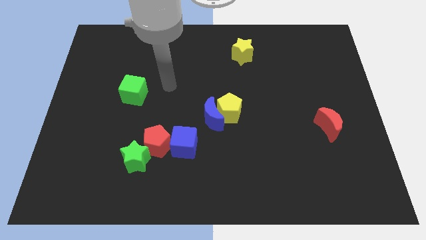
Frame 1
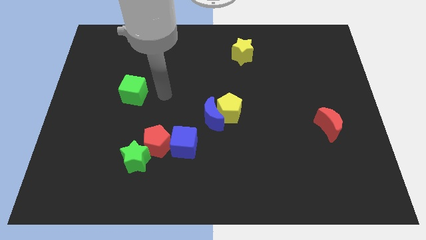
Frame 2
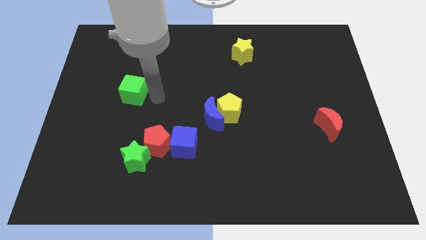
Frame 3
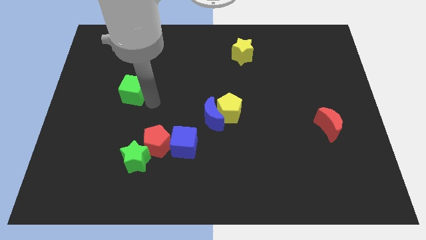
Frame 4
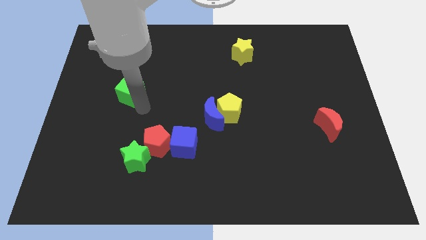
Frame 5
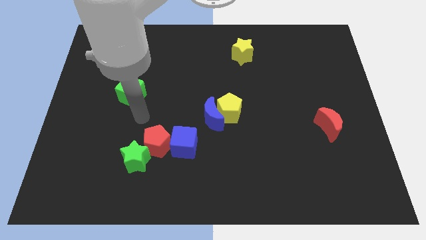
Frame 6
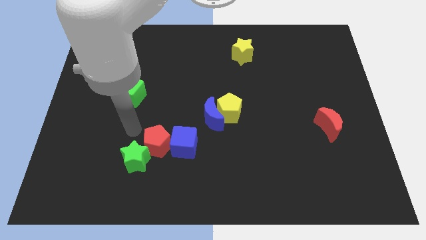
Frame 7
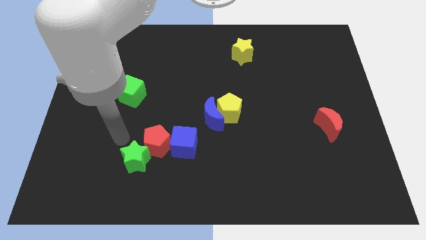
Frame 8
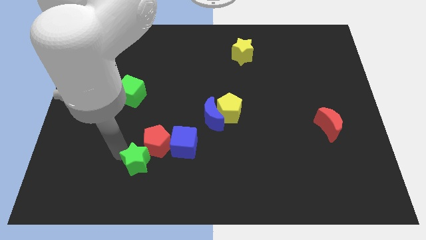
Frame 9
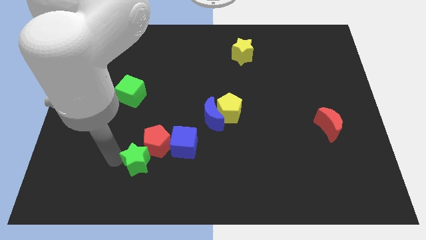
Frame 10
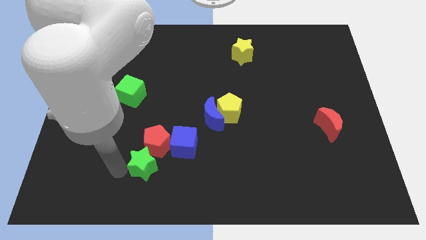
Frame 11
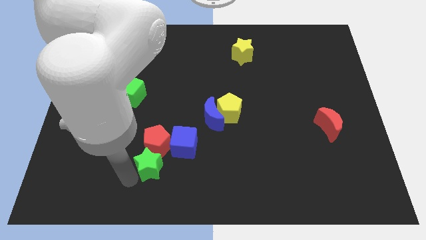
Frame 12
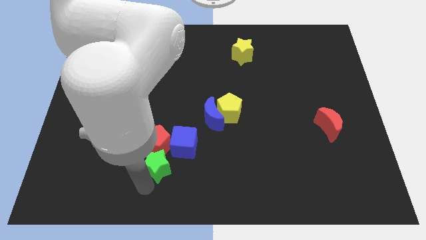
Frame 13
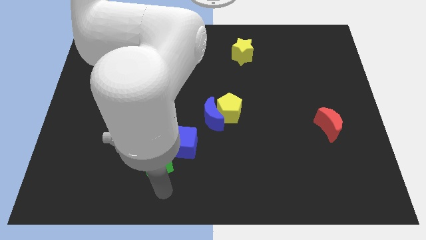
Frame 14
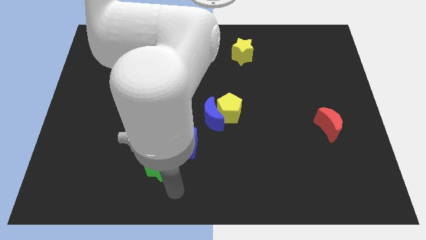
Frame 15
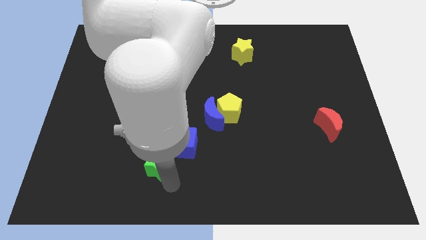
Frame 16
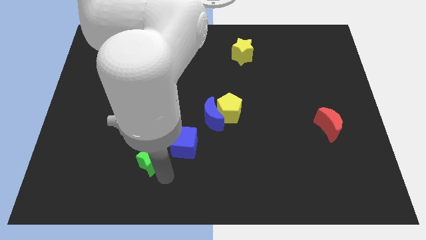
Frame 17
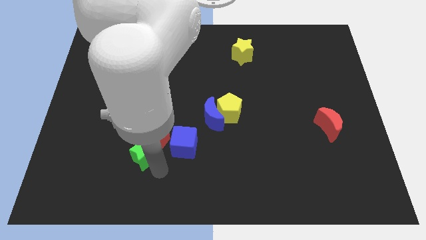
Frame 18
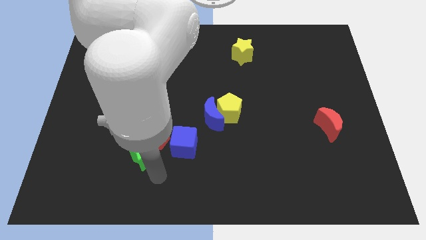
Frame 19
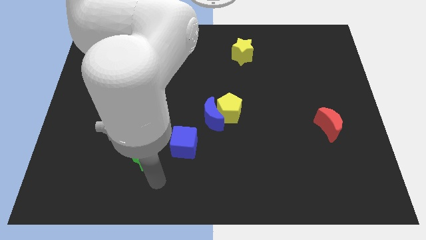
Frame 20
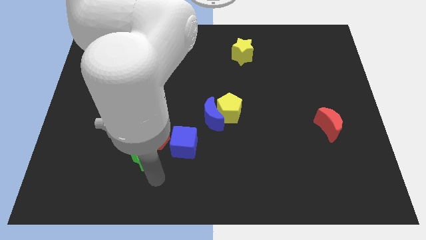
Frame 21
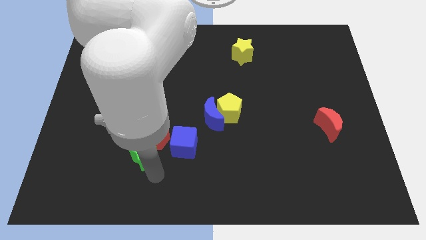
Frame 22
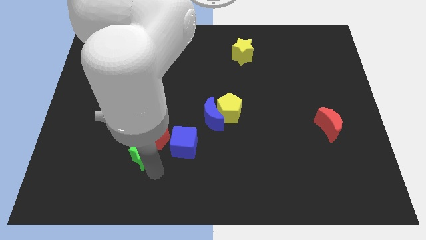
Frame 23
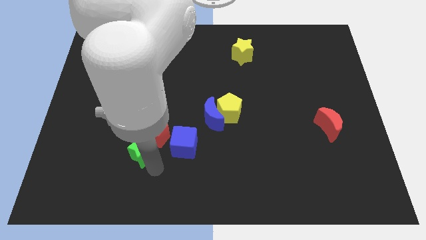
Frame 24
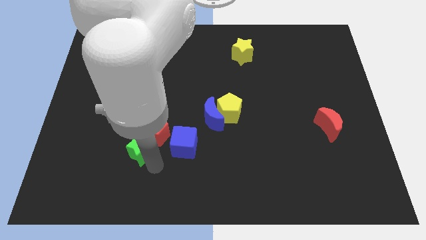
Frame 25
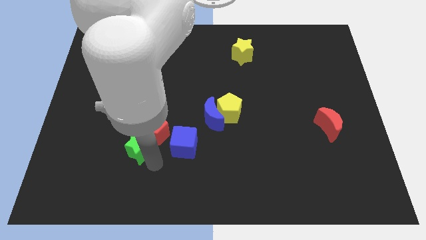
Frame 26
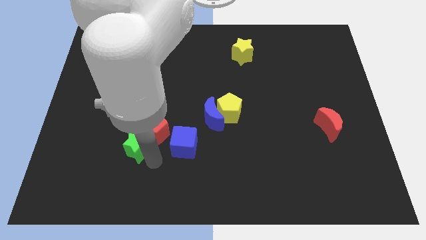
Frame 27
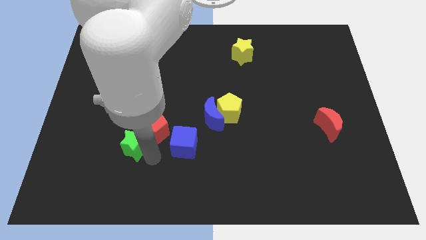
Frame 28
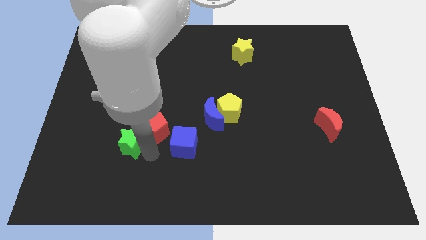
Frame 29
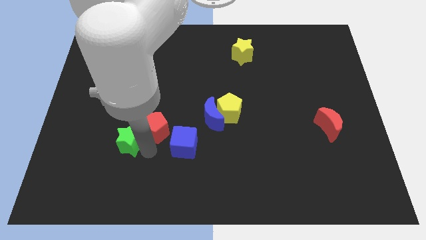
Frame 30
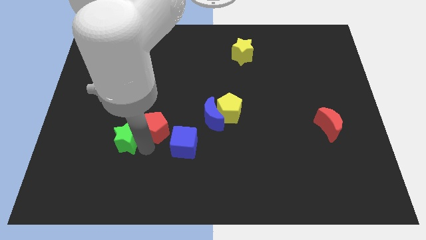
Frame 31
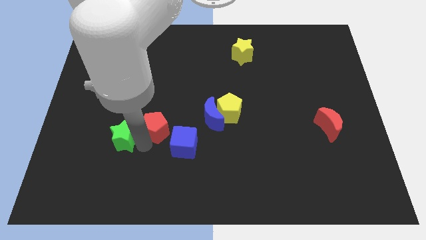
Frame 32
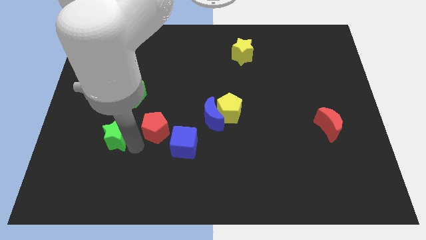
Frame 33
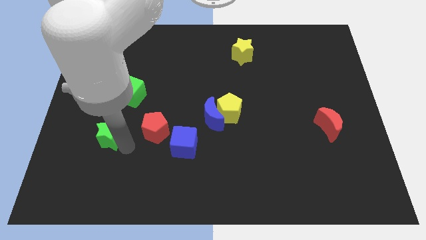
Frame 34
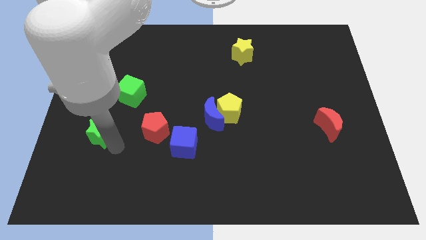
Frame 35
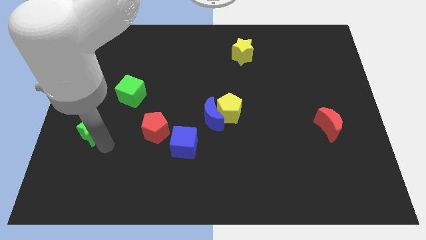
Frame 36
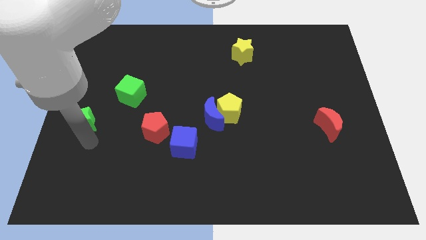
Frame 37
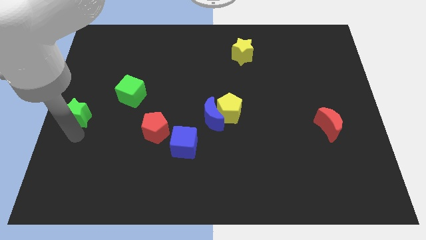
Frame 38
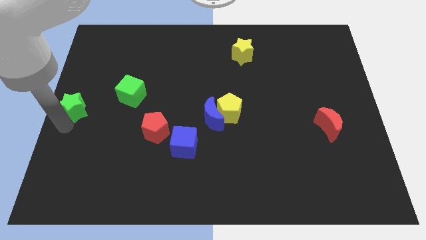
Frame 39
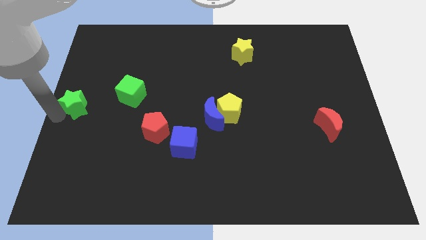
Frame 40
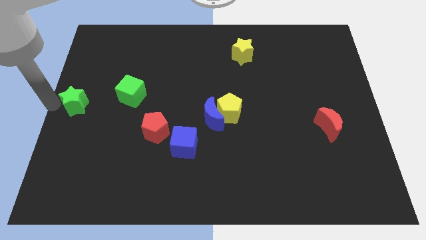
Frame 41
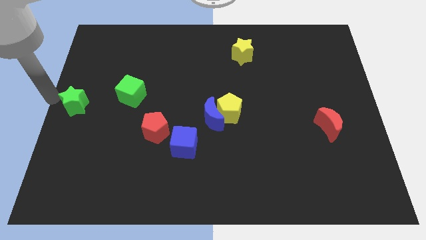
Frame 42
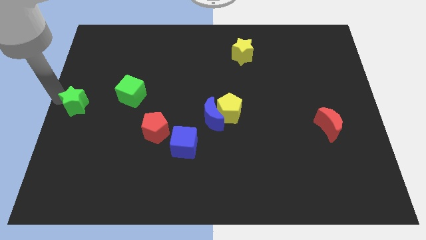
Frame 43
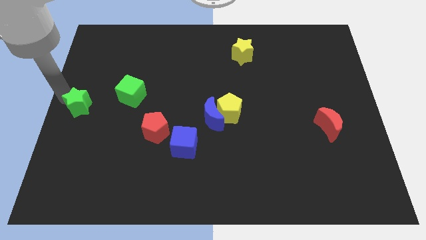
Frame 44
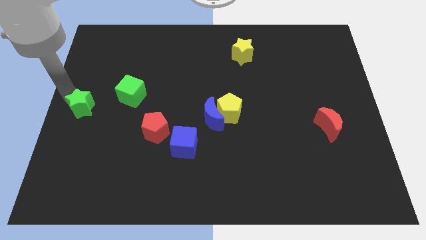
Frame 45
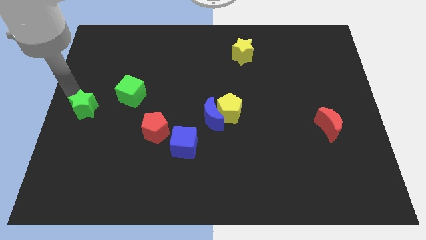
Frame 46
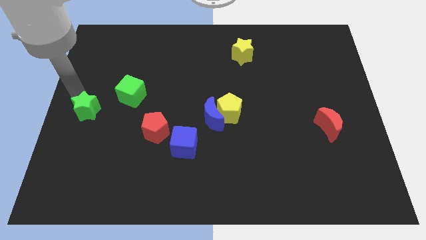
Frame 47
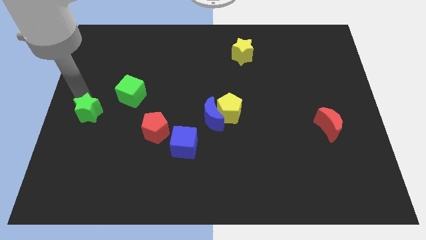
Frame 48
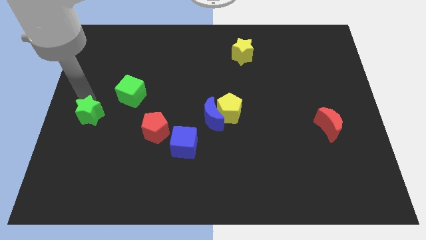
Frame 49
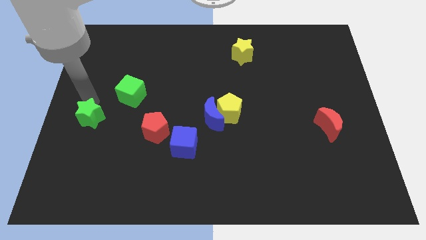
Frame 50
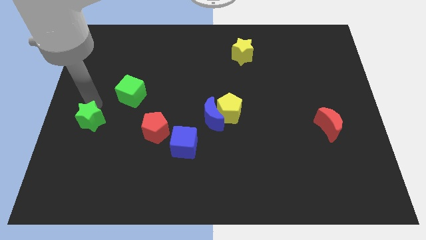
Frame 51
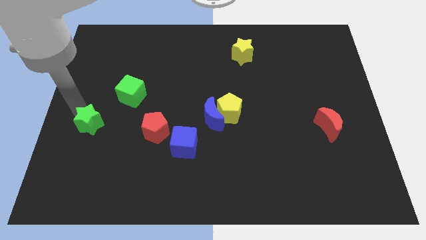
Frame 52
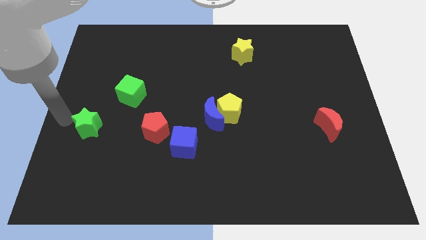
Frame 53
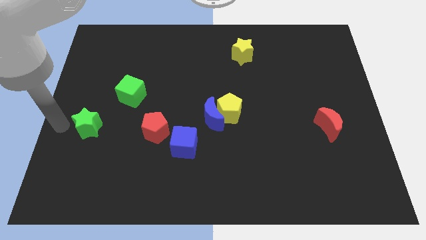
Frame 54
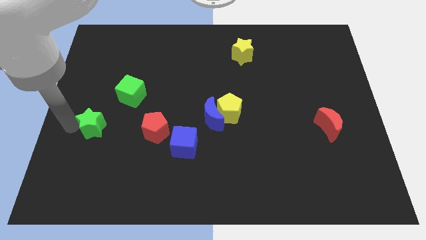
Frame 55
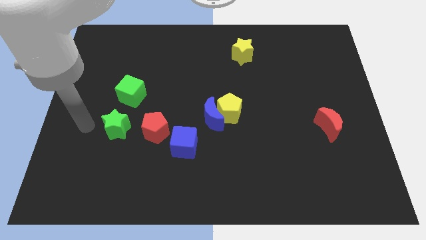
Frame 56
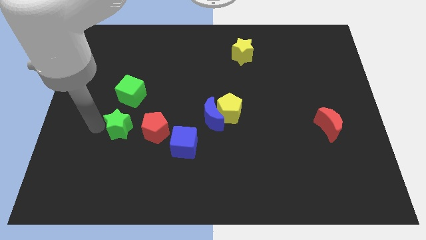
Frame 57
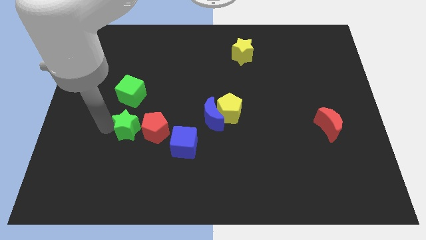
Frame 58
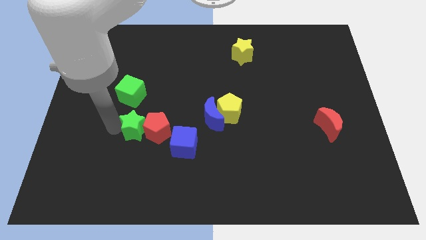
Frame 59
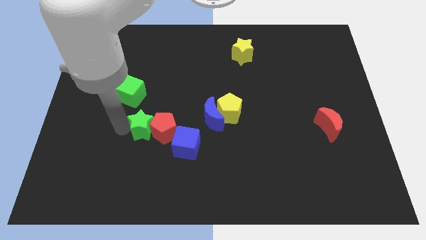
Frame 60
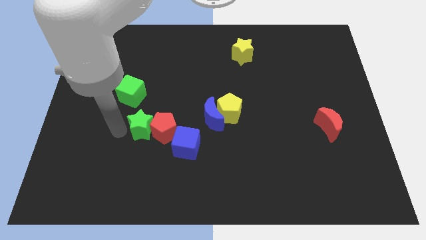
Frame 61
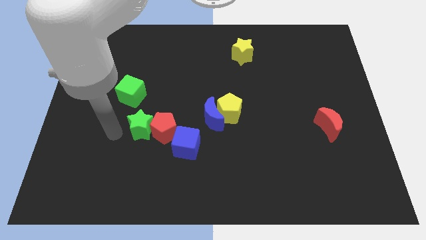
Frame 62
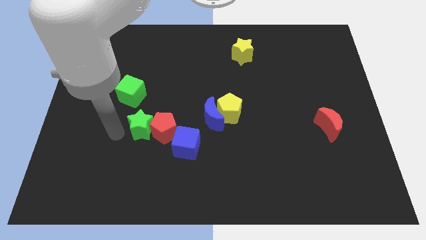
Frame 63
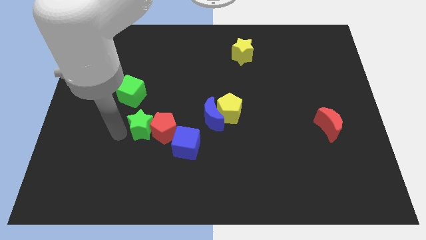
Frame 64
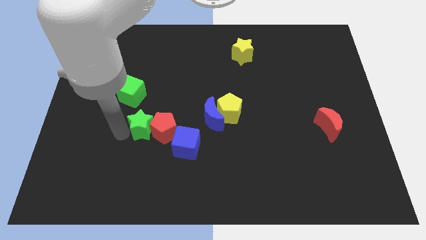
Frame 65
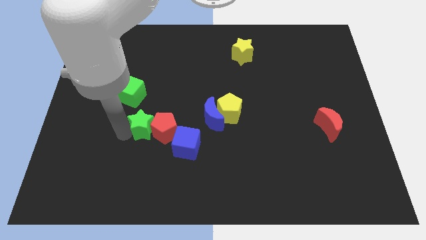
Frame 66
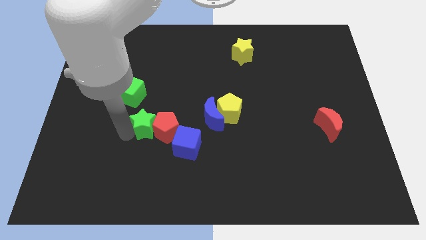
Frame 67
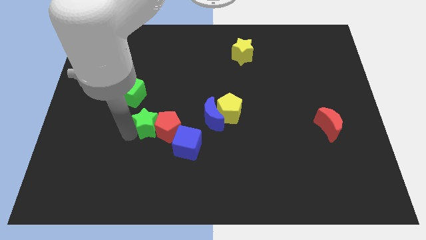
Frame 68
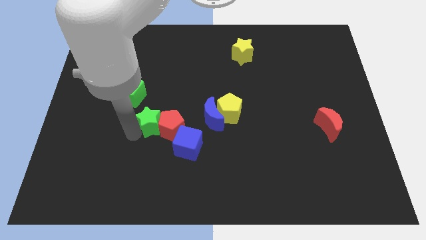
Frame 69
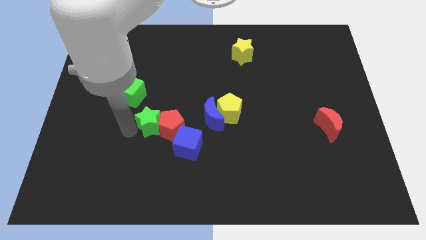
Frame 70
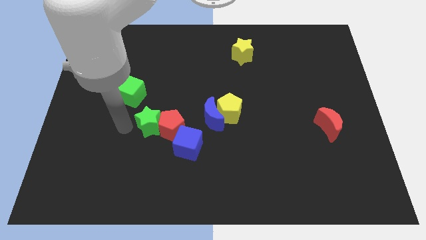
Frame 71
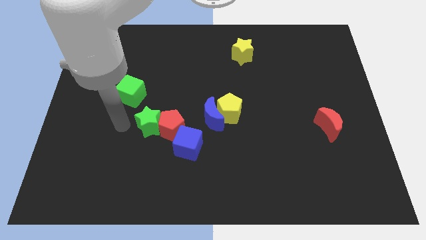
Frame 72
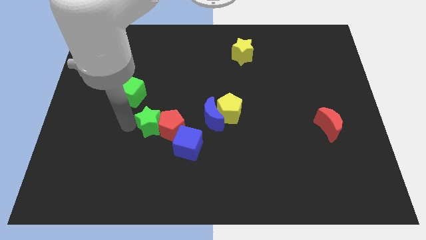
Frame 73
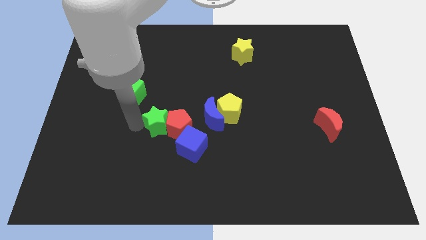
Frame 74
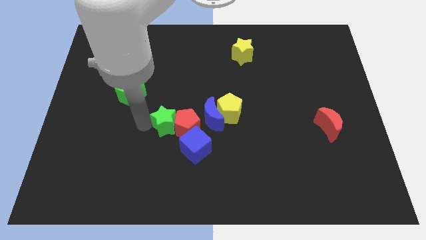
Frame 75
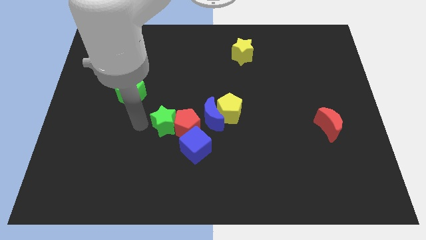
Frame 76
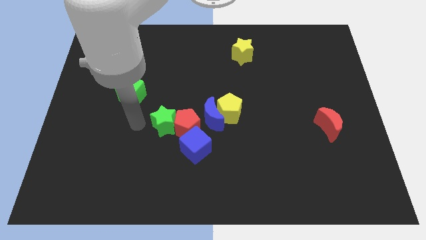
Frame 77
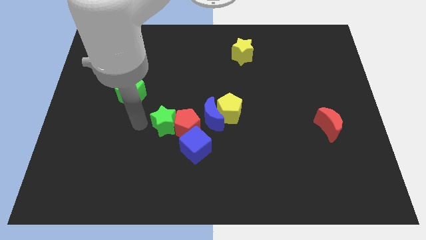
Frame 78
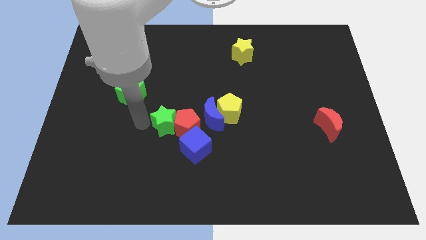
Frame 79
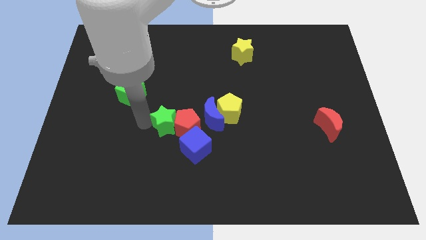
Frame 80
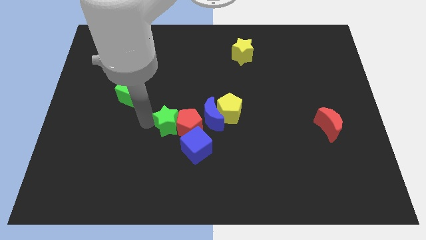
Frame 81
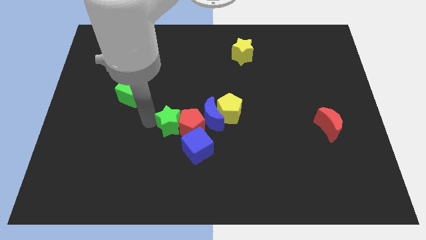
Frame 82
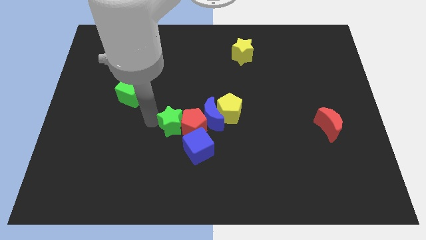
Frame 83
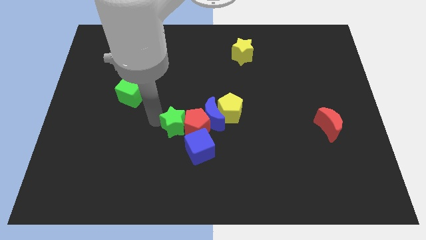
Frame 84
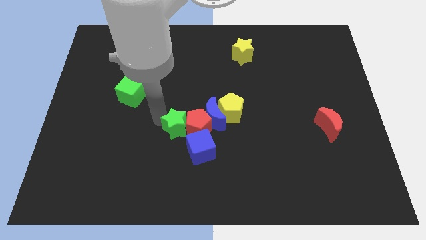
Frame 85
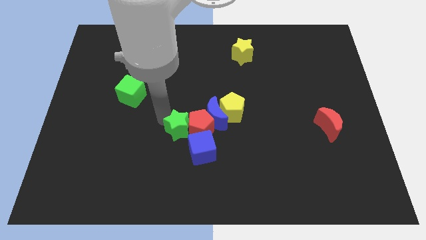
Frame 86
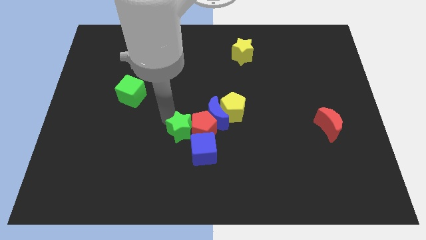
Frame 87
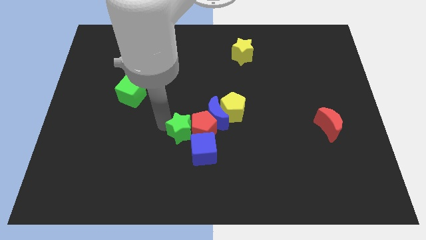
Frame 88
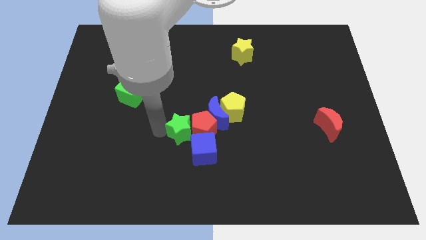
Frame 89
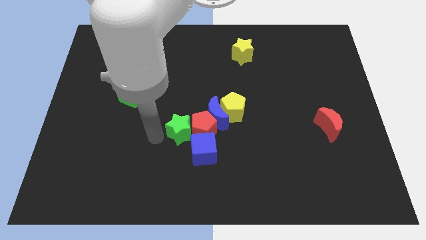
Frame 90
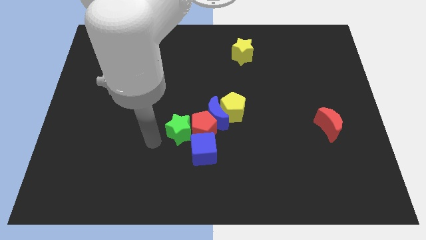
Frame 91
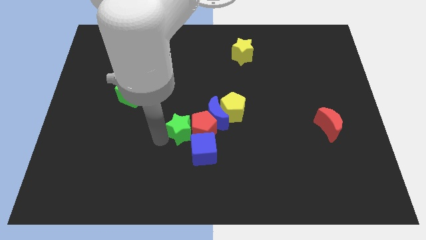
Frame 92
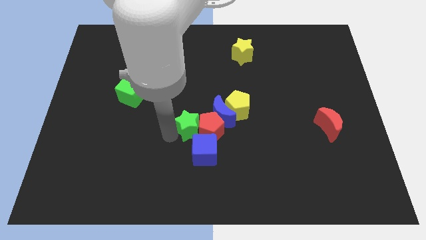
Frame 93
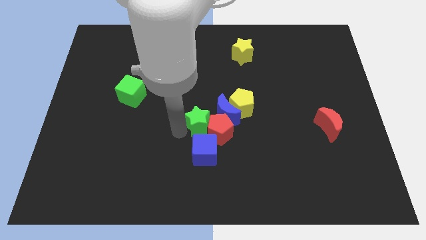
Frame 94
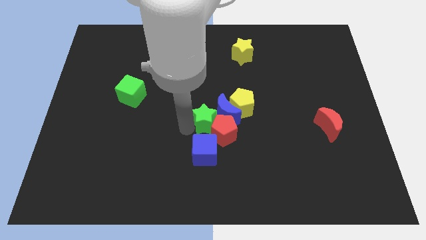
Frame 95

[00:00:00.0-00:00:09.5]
slide the green star close to the blue moon
